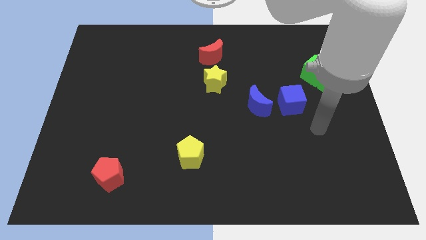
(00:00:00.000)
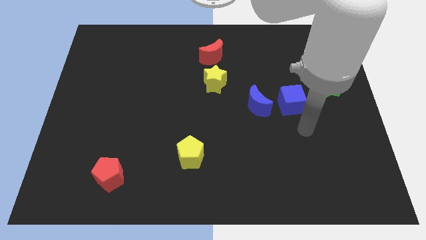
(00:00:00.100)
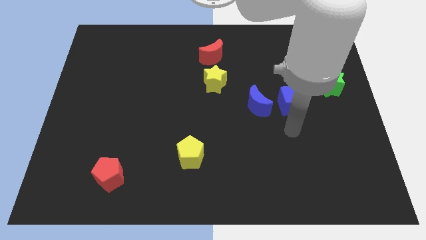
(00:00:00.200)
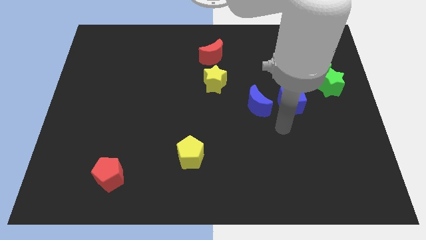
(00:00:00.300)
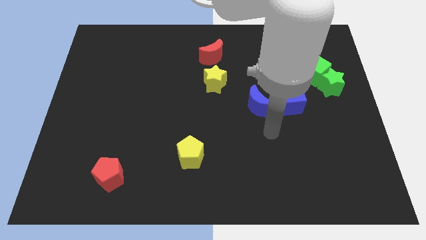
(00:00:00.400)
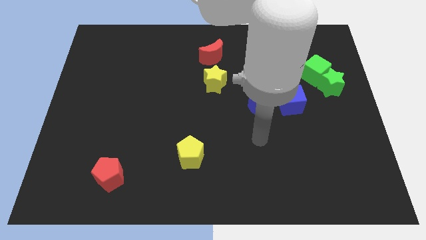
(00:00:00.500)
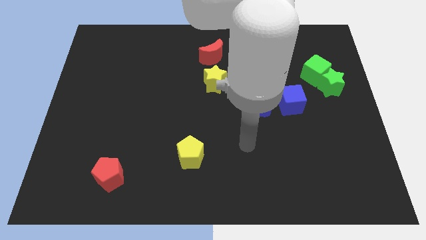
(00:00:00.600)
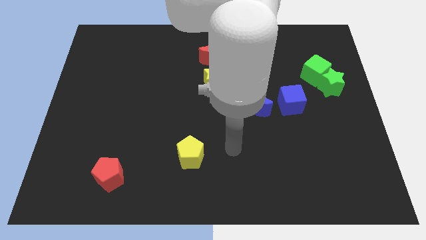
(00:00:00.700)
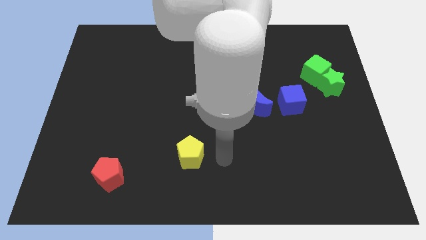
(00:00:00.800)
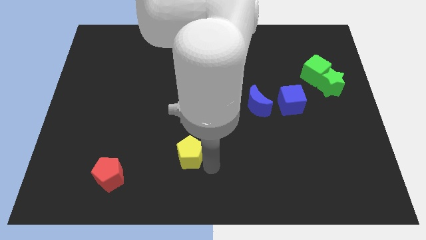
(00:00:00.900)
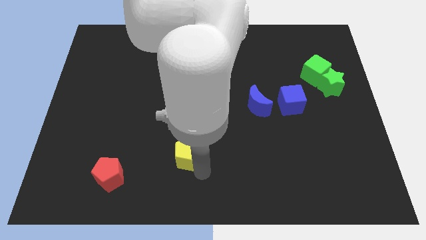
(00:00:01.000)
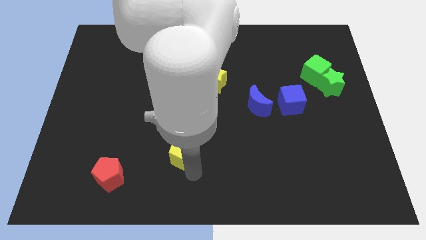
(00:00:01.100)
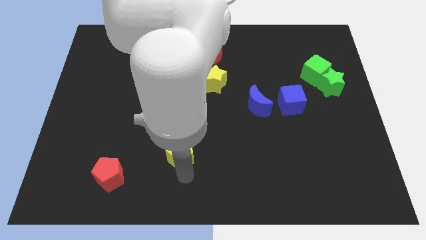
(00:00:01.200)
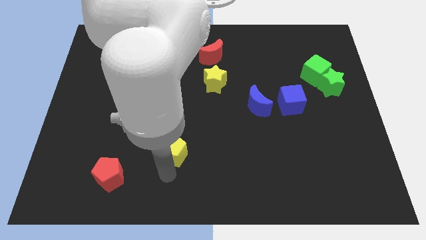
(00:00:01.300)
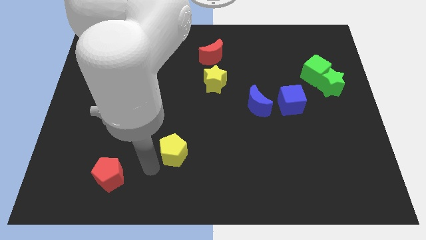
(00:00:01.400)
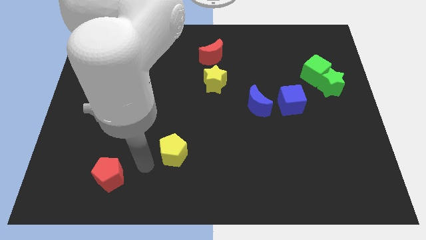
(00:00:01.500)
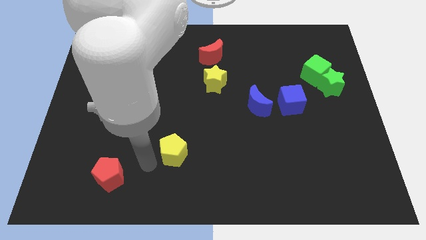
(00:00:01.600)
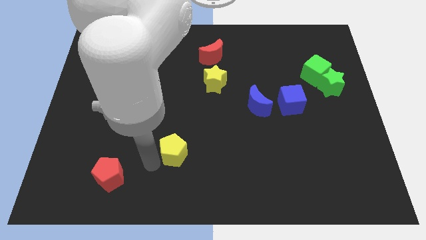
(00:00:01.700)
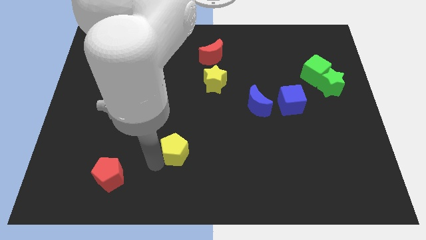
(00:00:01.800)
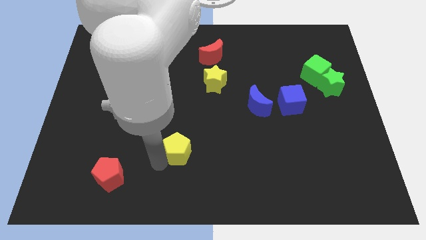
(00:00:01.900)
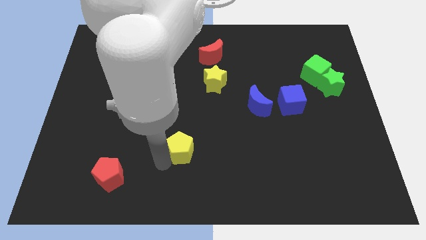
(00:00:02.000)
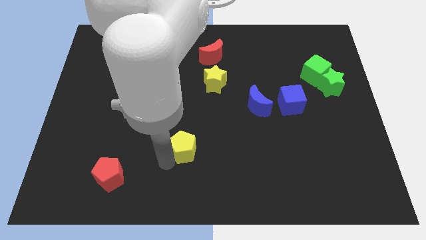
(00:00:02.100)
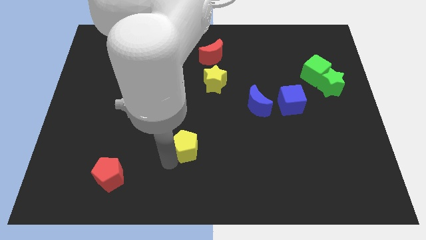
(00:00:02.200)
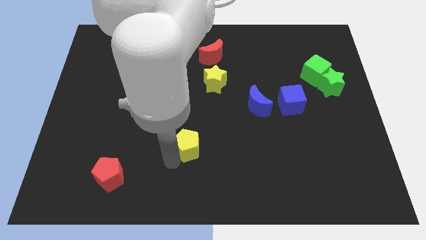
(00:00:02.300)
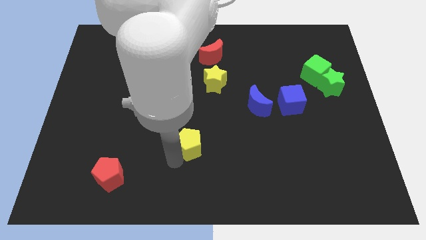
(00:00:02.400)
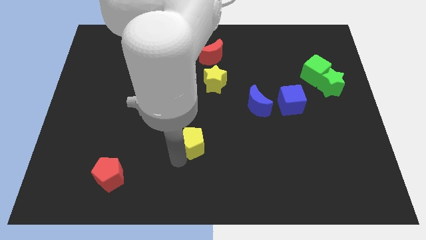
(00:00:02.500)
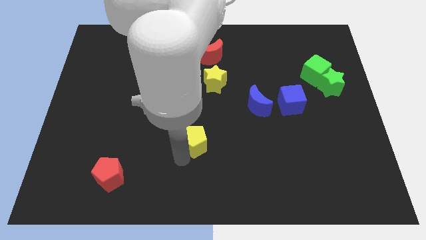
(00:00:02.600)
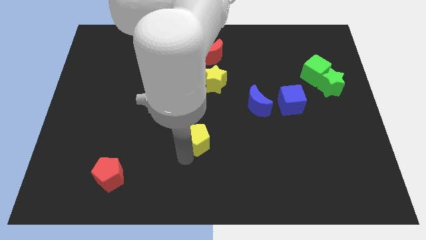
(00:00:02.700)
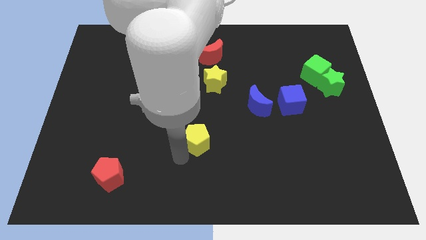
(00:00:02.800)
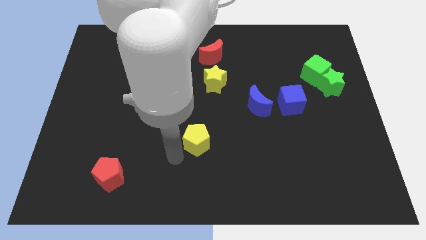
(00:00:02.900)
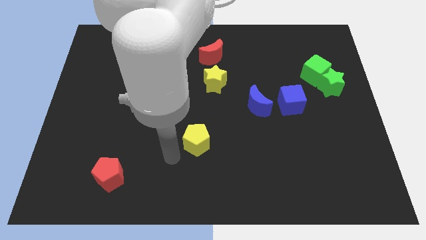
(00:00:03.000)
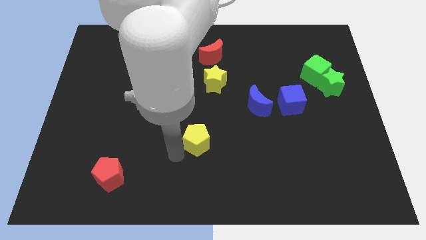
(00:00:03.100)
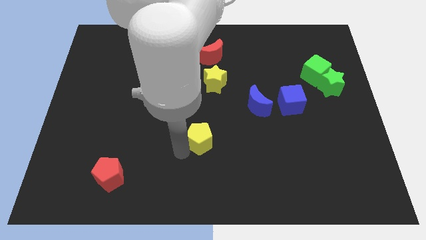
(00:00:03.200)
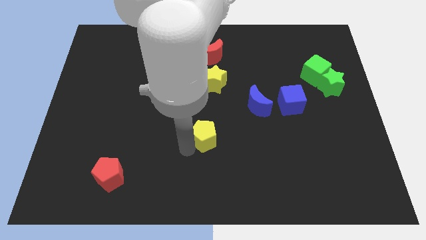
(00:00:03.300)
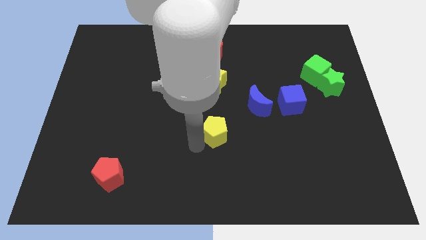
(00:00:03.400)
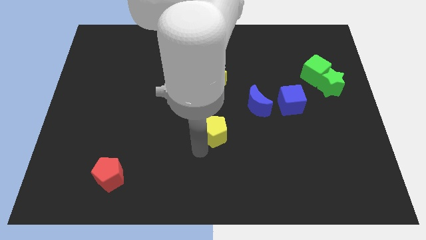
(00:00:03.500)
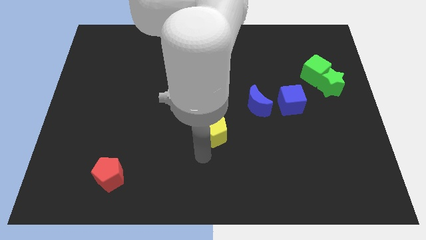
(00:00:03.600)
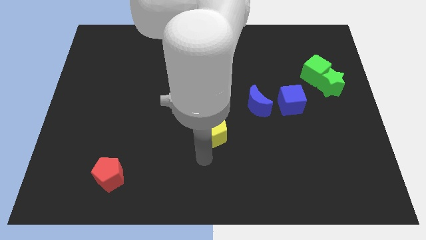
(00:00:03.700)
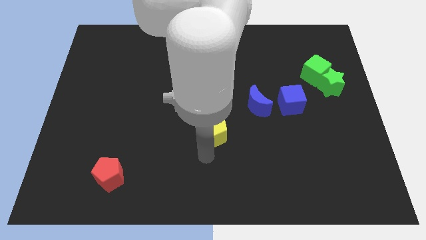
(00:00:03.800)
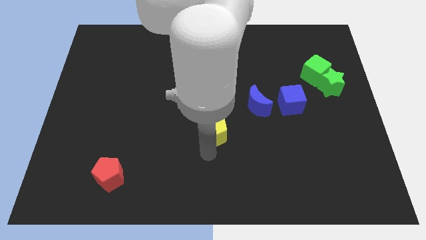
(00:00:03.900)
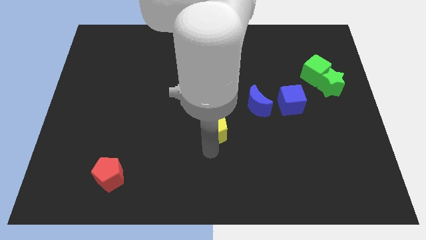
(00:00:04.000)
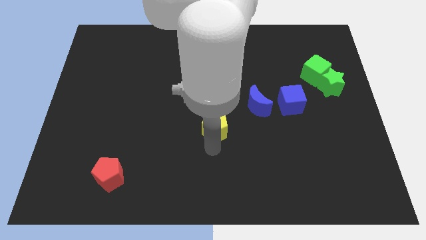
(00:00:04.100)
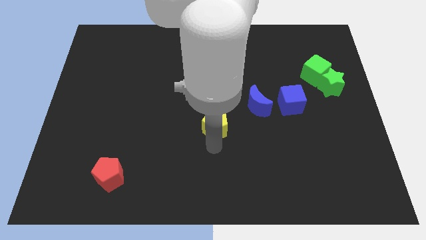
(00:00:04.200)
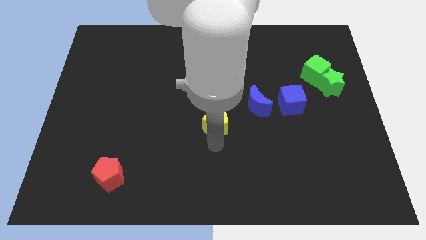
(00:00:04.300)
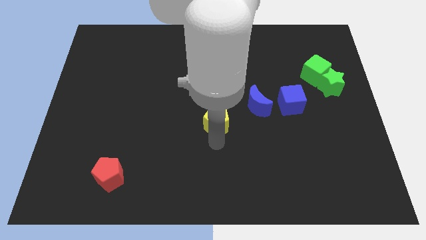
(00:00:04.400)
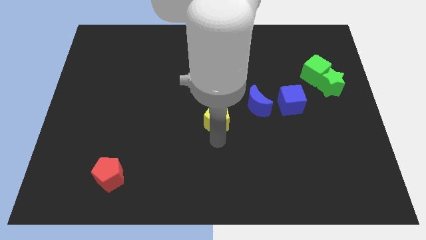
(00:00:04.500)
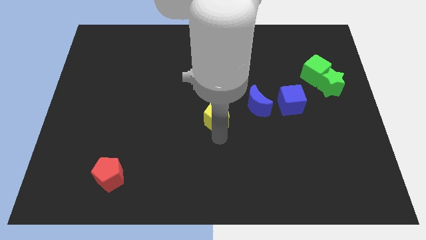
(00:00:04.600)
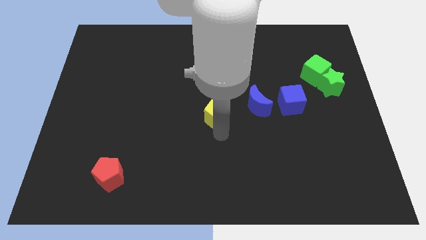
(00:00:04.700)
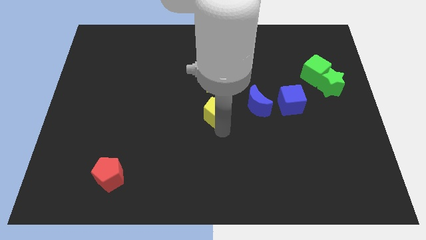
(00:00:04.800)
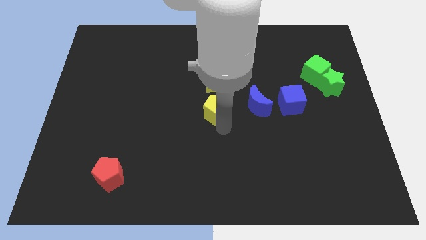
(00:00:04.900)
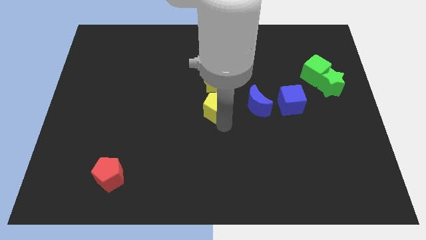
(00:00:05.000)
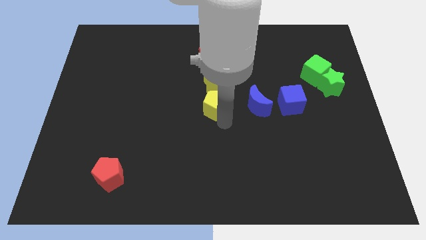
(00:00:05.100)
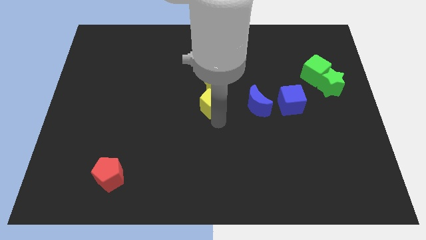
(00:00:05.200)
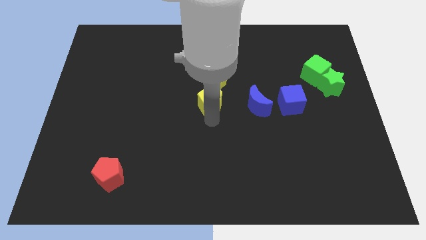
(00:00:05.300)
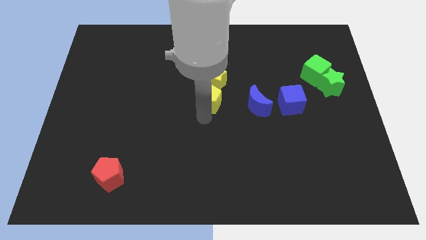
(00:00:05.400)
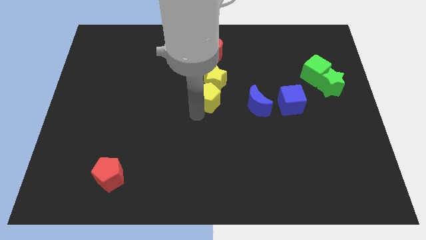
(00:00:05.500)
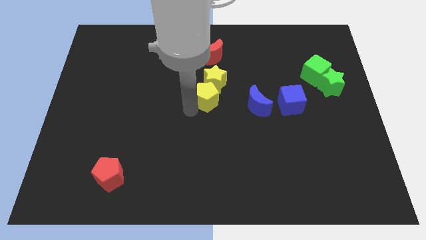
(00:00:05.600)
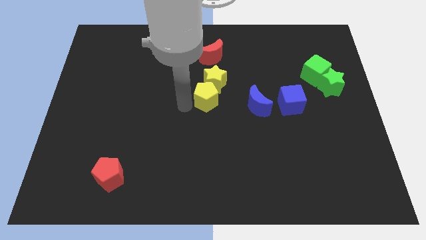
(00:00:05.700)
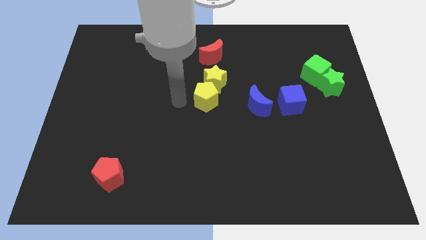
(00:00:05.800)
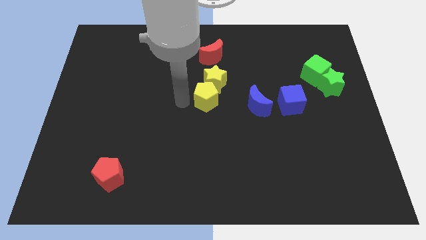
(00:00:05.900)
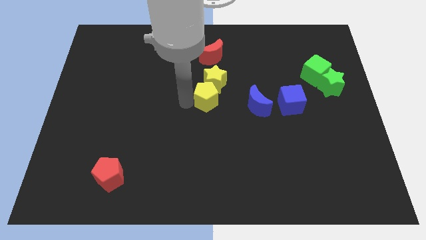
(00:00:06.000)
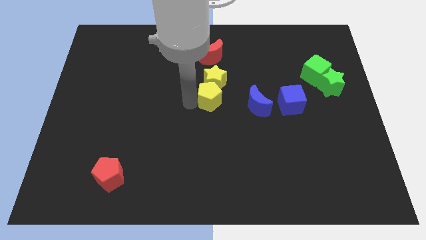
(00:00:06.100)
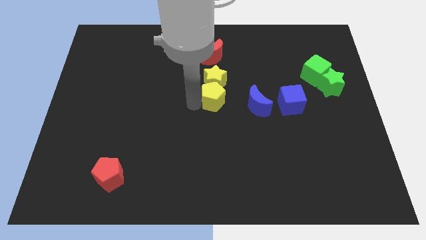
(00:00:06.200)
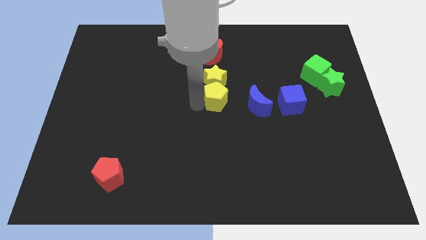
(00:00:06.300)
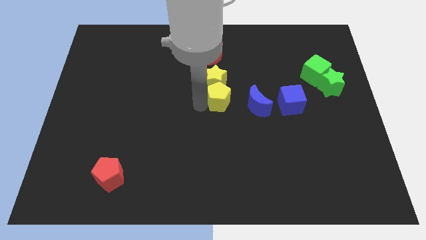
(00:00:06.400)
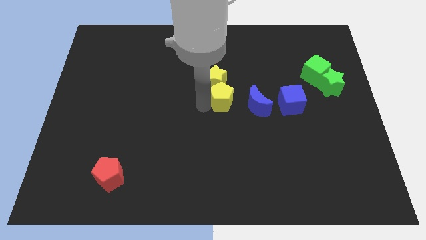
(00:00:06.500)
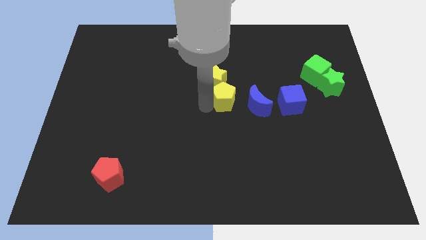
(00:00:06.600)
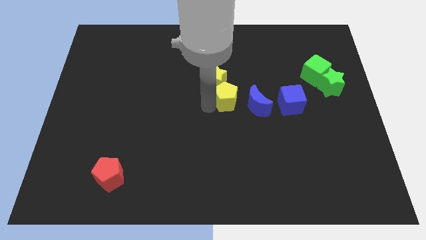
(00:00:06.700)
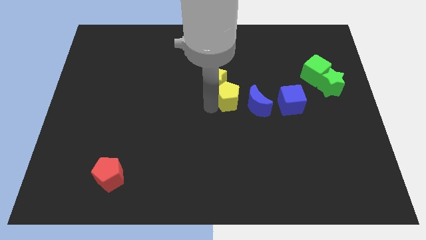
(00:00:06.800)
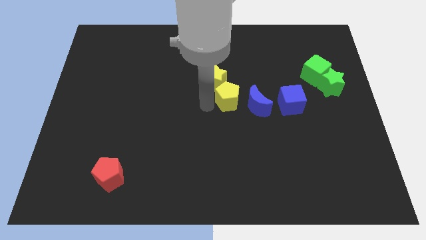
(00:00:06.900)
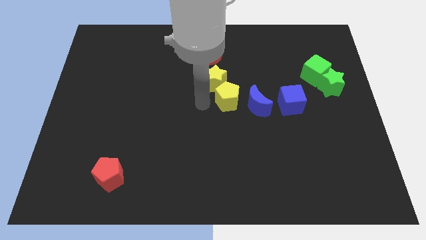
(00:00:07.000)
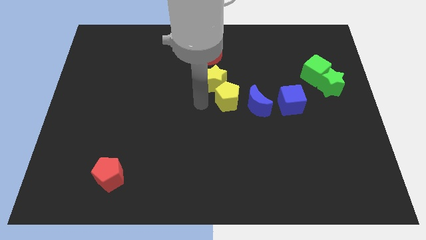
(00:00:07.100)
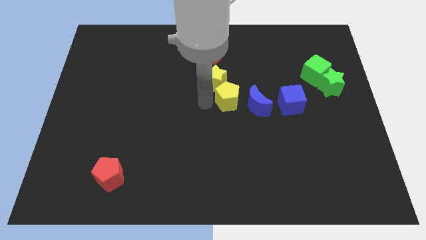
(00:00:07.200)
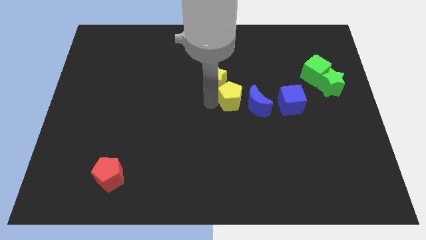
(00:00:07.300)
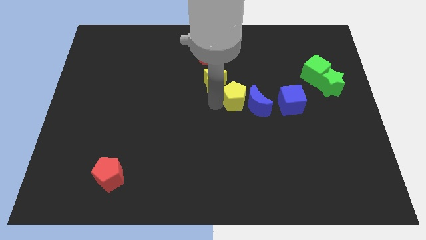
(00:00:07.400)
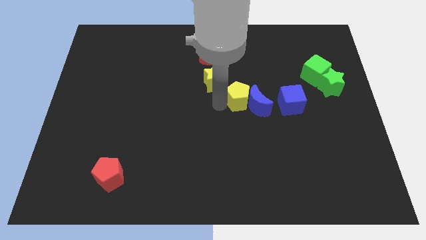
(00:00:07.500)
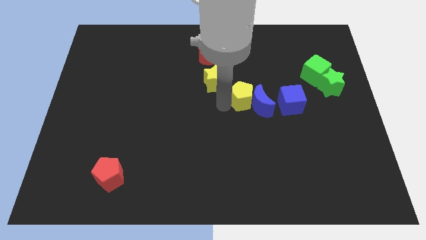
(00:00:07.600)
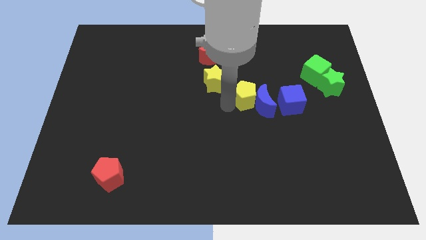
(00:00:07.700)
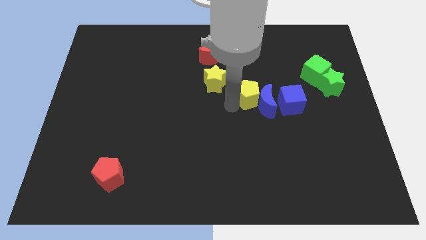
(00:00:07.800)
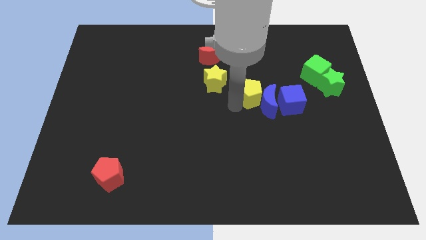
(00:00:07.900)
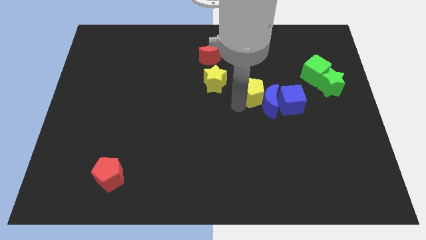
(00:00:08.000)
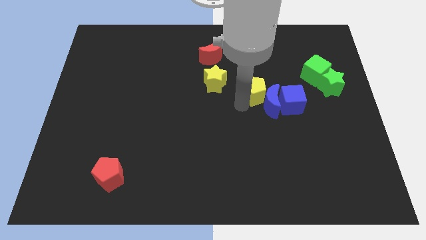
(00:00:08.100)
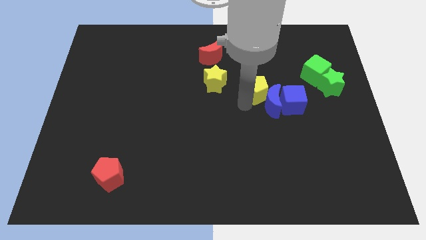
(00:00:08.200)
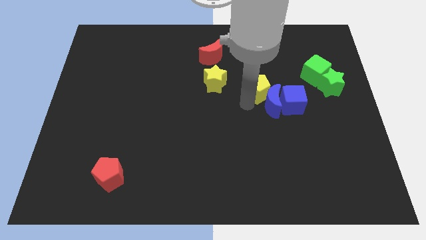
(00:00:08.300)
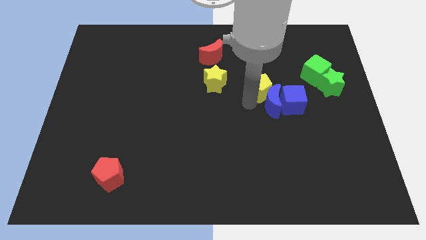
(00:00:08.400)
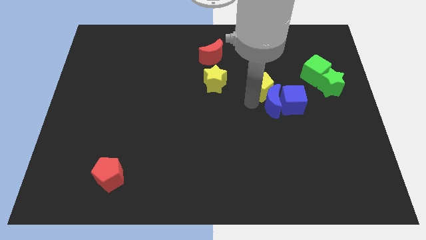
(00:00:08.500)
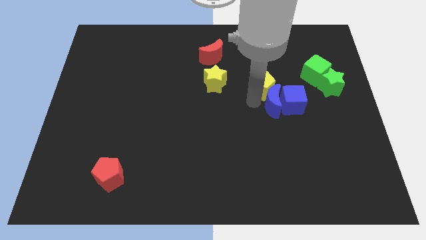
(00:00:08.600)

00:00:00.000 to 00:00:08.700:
slide the yellow pentagon to the top right of the blue moon
